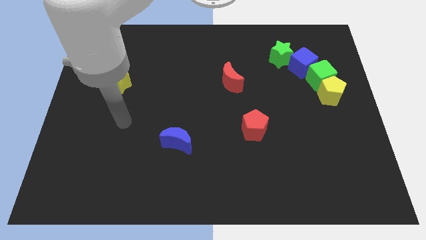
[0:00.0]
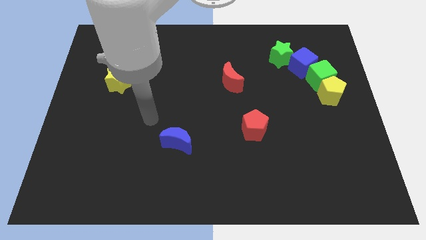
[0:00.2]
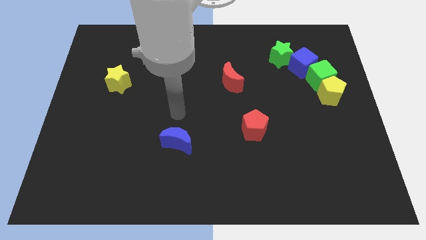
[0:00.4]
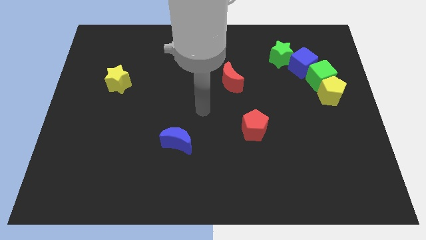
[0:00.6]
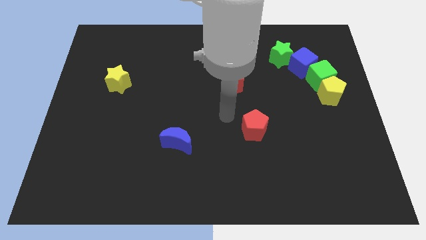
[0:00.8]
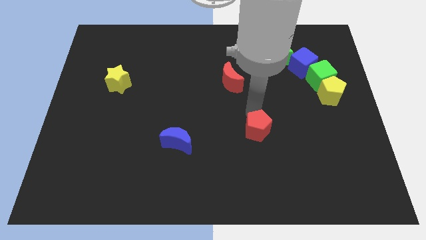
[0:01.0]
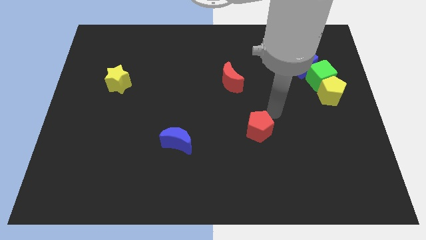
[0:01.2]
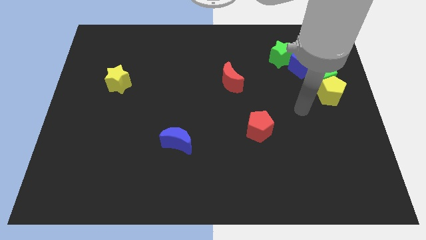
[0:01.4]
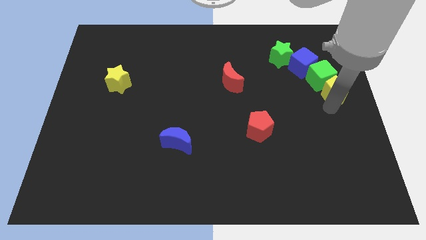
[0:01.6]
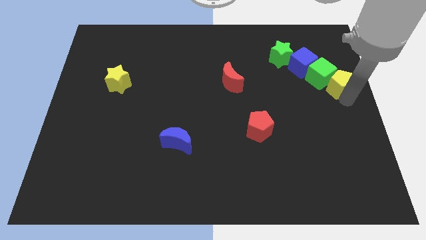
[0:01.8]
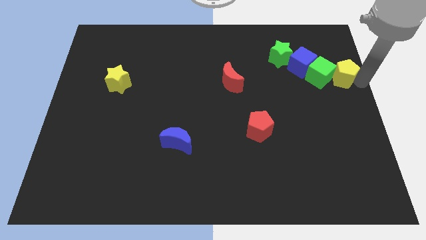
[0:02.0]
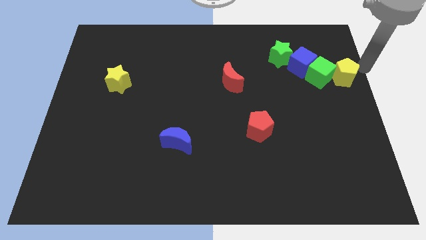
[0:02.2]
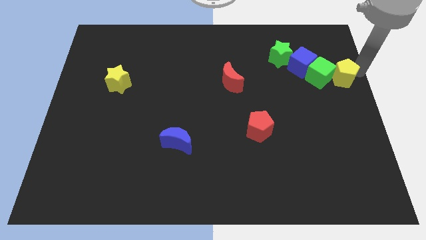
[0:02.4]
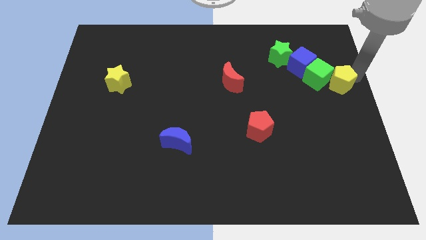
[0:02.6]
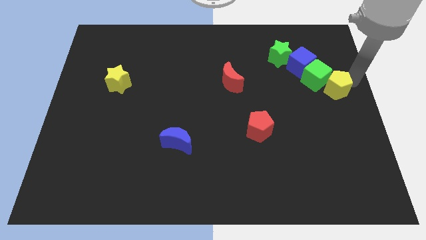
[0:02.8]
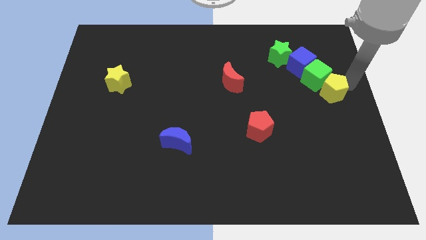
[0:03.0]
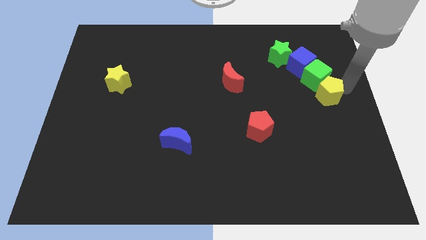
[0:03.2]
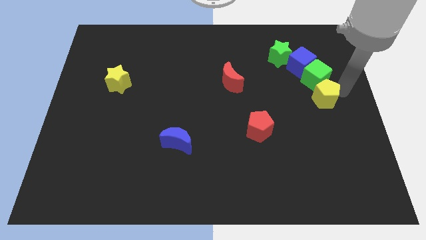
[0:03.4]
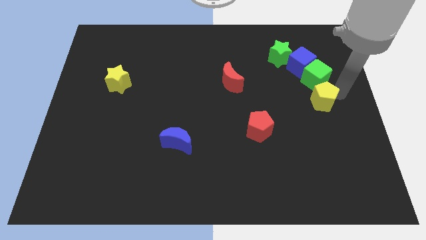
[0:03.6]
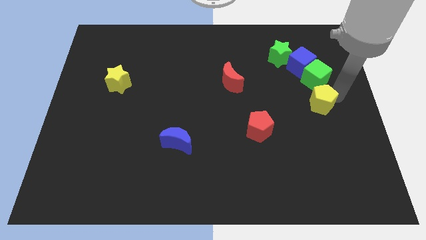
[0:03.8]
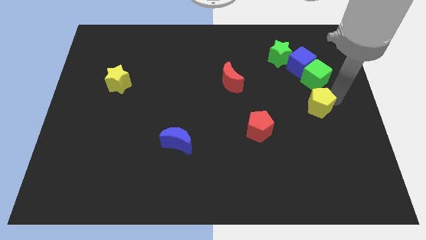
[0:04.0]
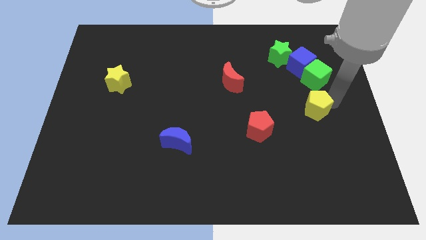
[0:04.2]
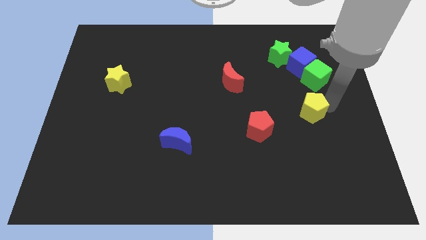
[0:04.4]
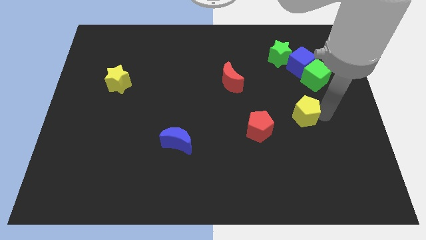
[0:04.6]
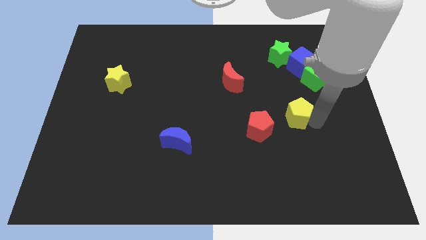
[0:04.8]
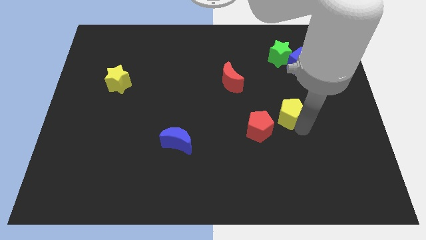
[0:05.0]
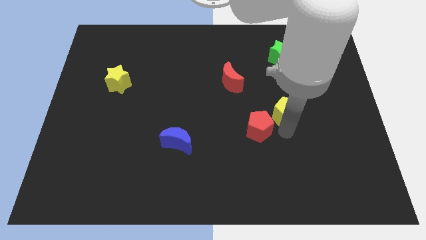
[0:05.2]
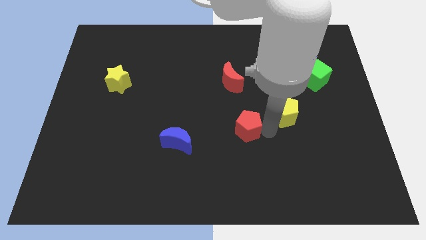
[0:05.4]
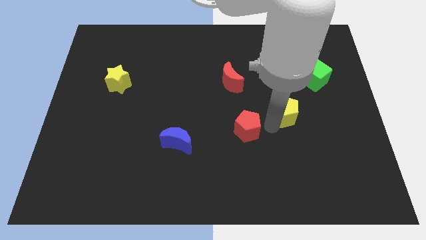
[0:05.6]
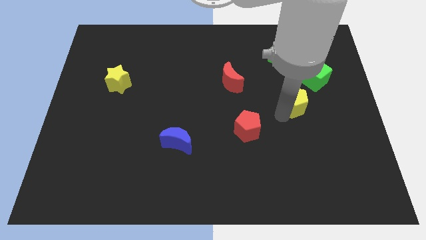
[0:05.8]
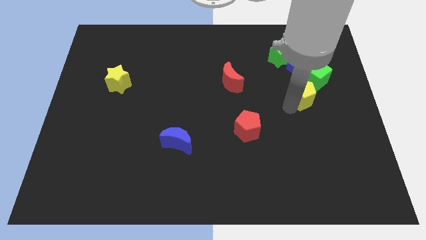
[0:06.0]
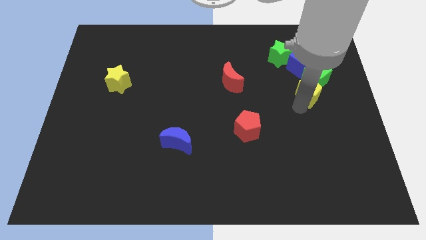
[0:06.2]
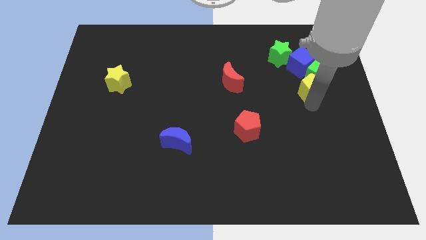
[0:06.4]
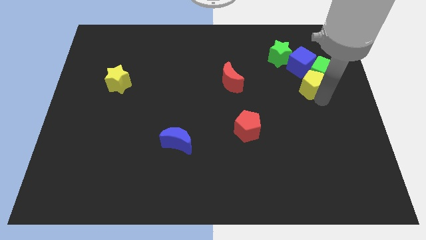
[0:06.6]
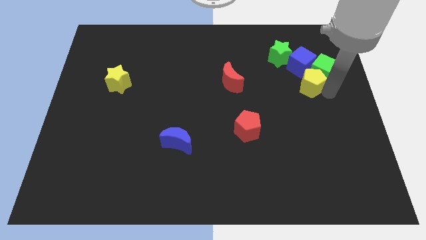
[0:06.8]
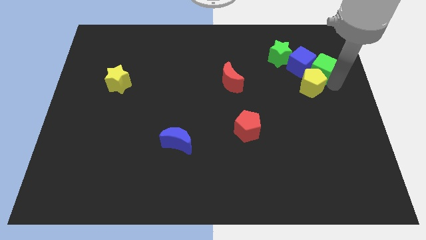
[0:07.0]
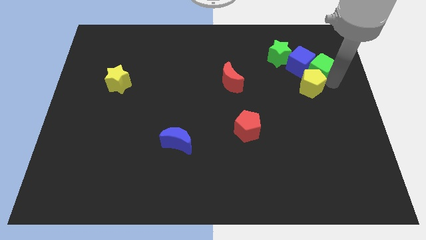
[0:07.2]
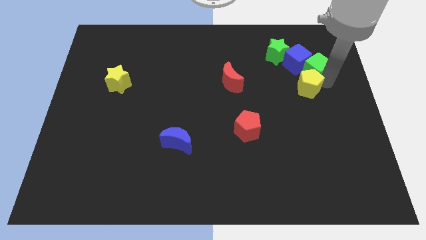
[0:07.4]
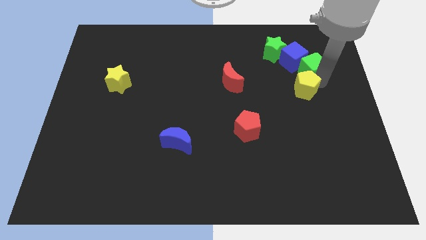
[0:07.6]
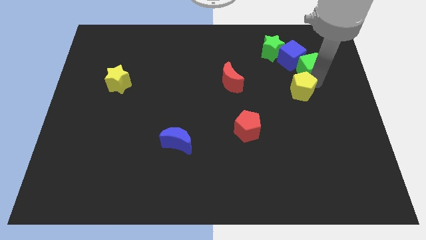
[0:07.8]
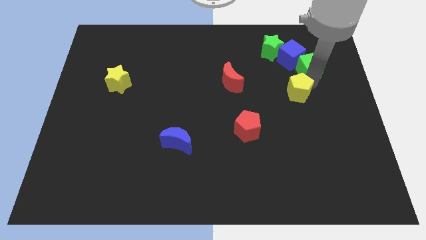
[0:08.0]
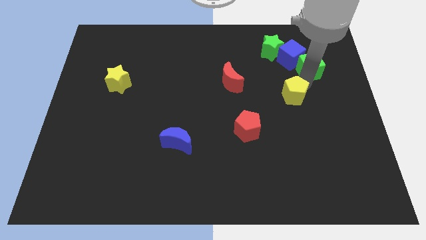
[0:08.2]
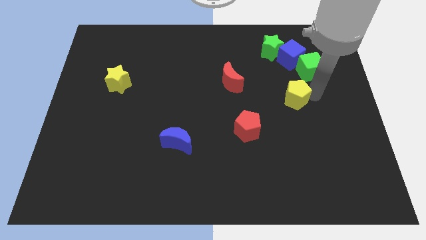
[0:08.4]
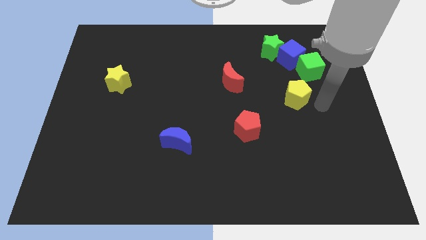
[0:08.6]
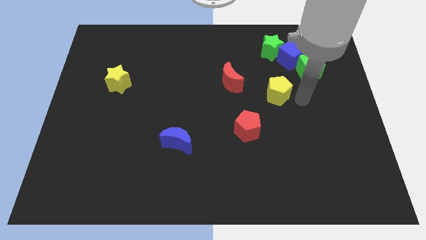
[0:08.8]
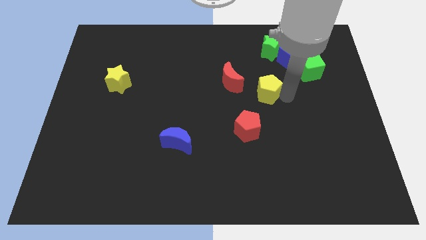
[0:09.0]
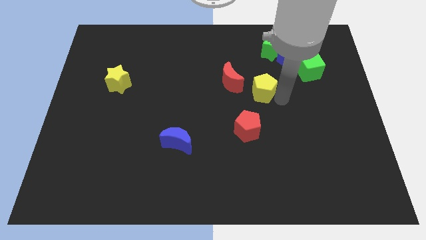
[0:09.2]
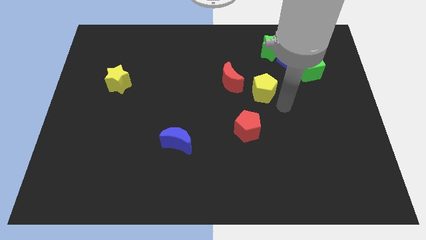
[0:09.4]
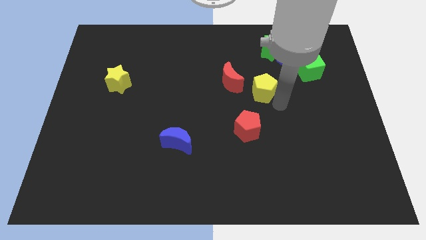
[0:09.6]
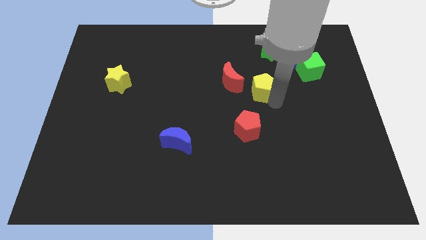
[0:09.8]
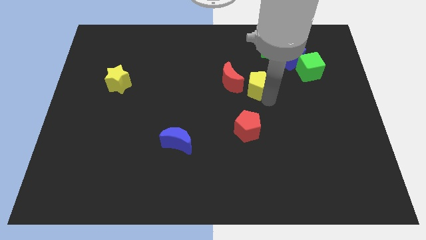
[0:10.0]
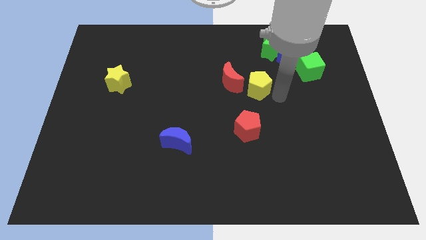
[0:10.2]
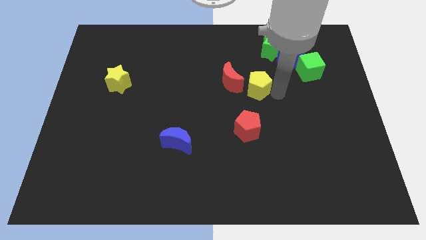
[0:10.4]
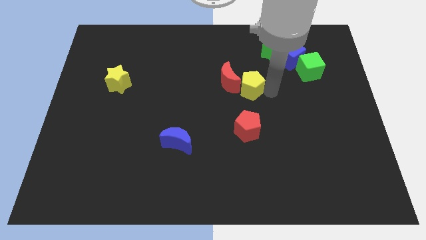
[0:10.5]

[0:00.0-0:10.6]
put the yellow pentagon towards the red moon

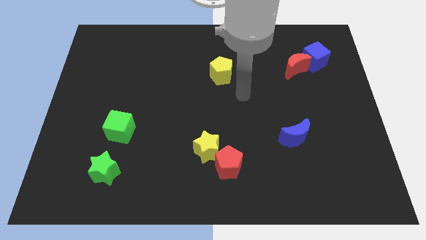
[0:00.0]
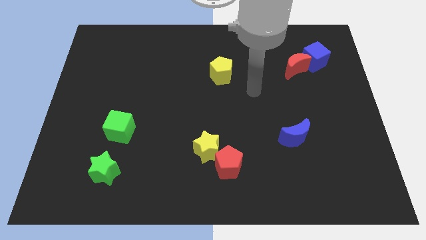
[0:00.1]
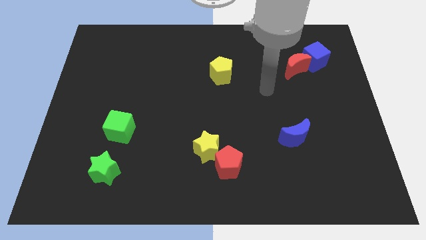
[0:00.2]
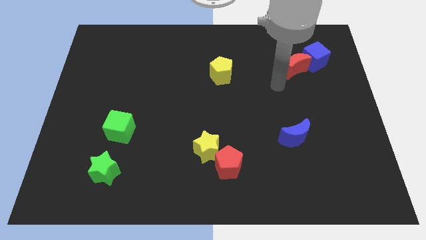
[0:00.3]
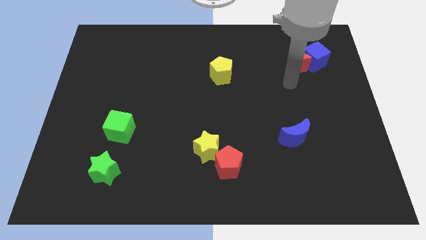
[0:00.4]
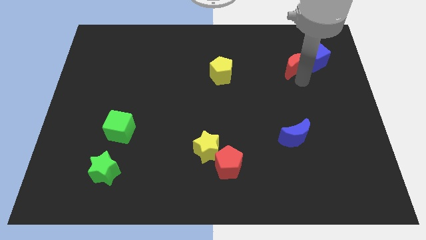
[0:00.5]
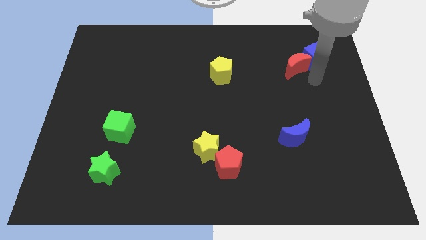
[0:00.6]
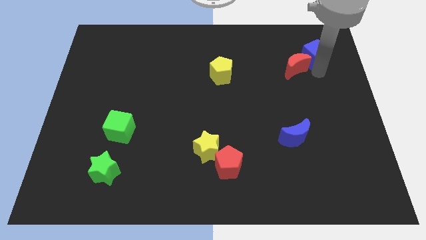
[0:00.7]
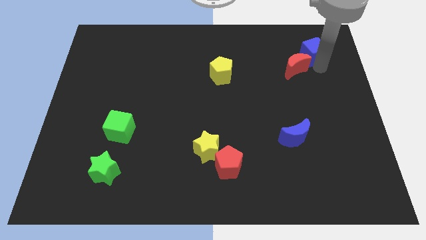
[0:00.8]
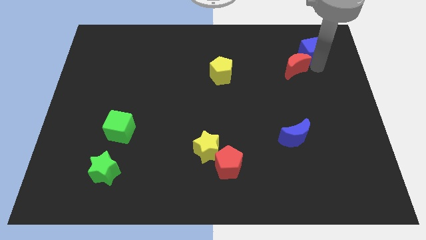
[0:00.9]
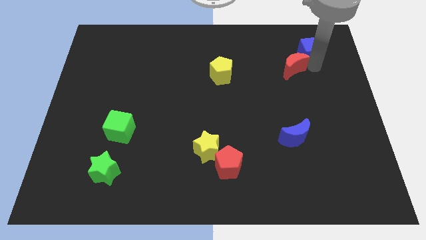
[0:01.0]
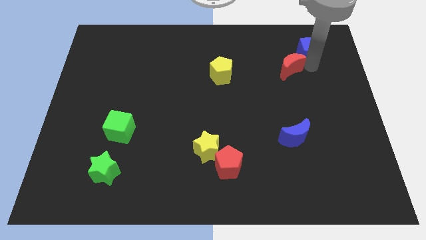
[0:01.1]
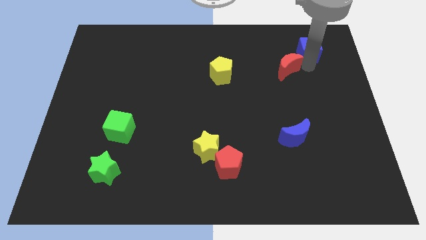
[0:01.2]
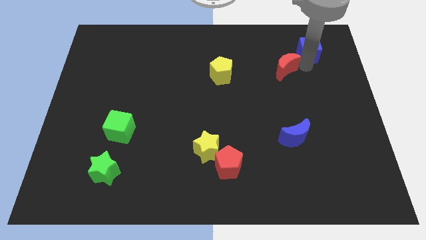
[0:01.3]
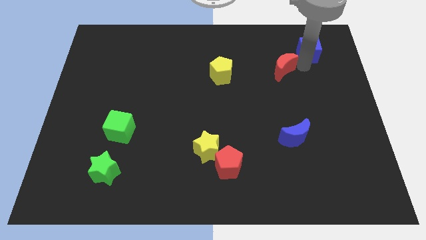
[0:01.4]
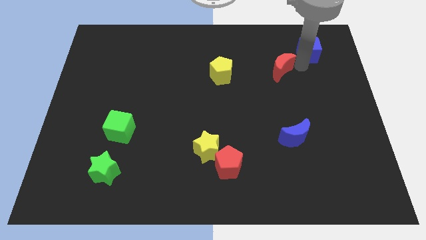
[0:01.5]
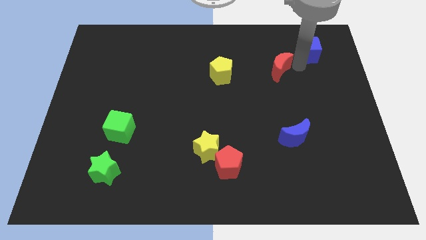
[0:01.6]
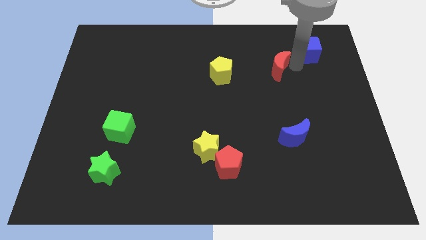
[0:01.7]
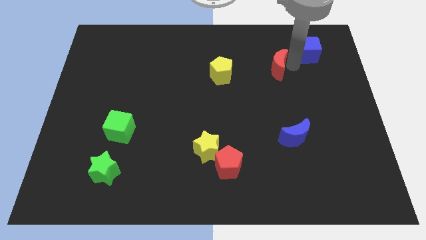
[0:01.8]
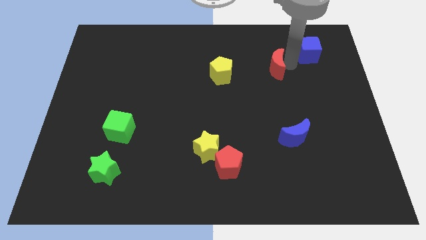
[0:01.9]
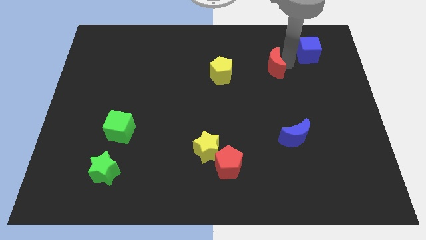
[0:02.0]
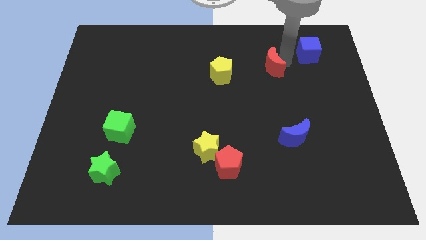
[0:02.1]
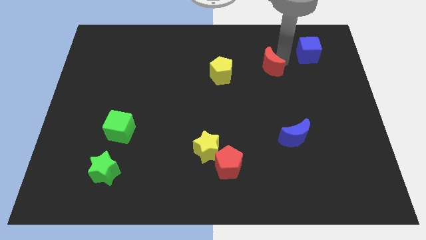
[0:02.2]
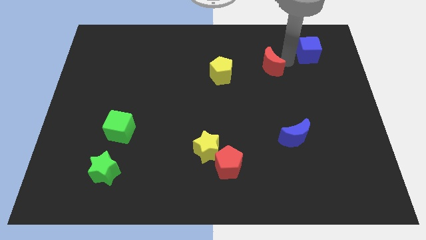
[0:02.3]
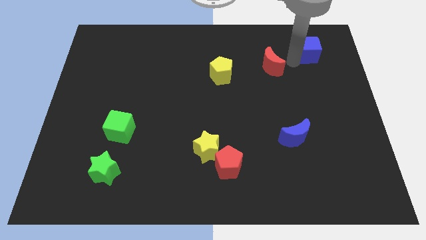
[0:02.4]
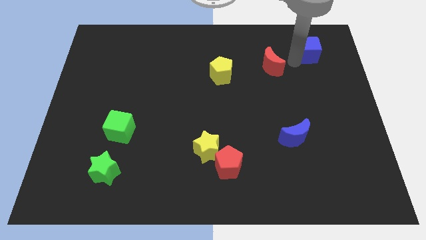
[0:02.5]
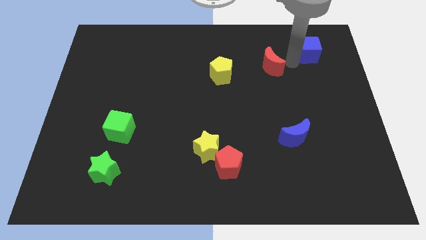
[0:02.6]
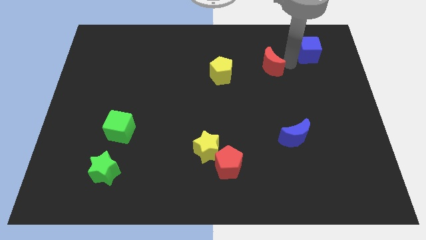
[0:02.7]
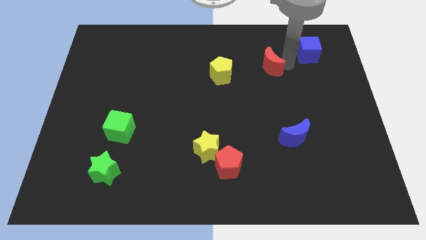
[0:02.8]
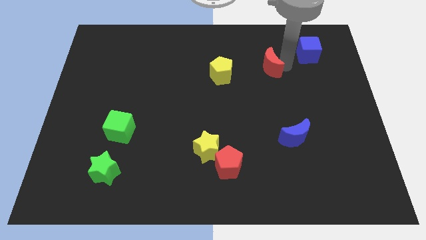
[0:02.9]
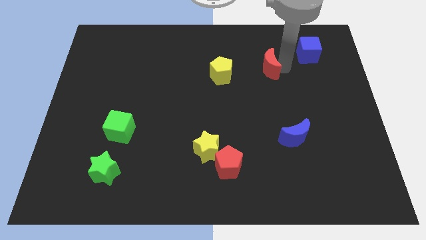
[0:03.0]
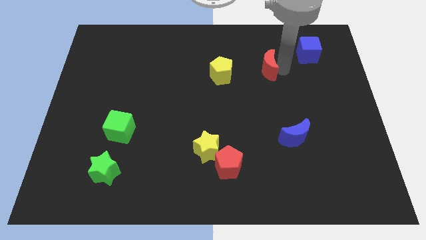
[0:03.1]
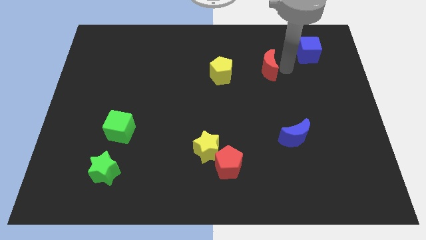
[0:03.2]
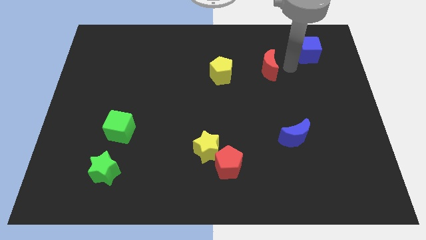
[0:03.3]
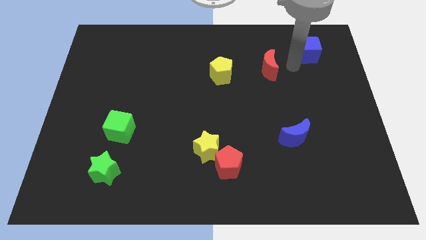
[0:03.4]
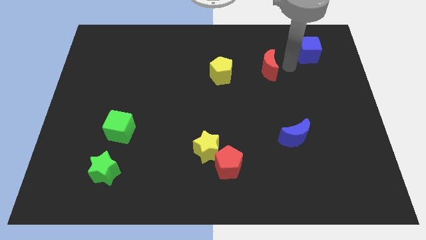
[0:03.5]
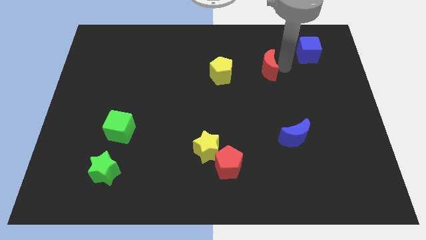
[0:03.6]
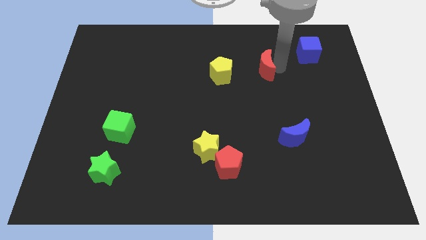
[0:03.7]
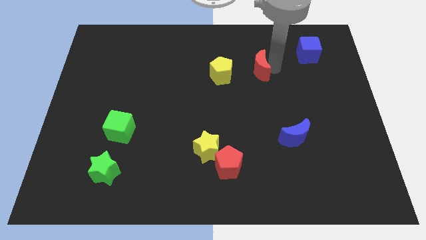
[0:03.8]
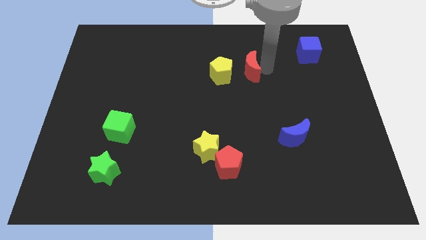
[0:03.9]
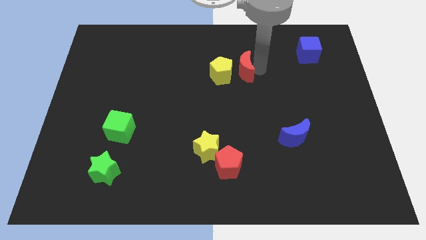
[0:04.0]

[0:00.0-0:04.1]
slide the red moon to the yellow pentagon
